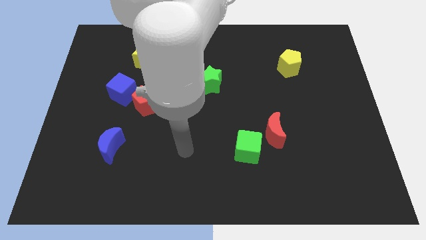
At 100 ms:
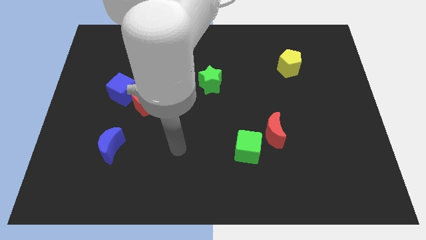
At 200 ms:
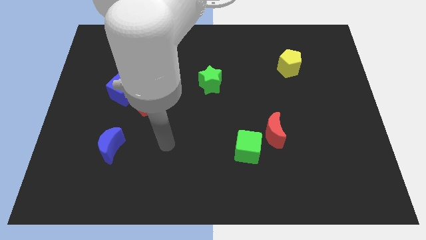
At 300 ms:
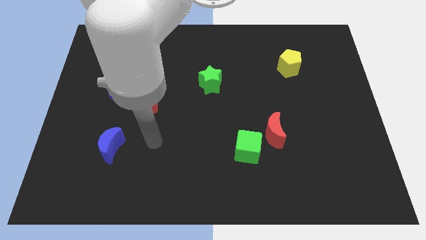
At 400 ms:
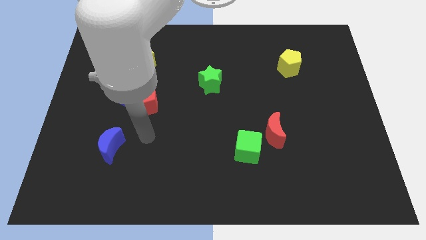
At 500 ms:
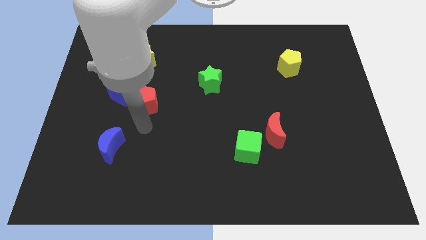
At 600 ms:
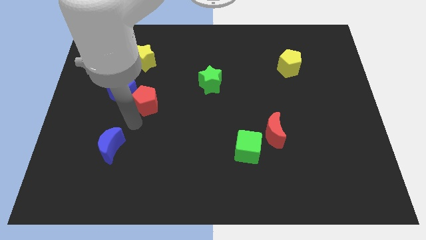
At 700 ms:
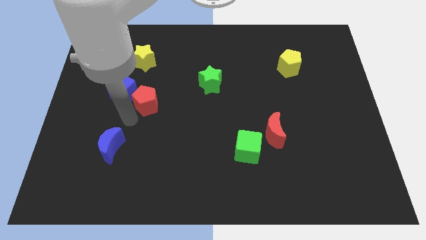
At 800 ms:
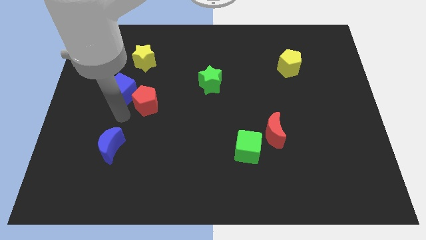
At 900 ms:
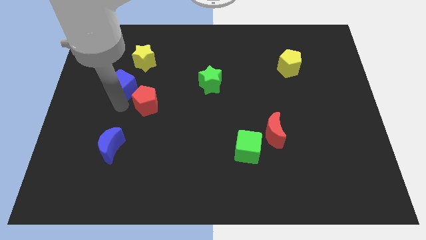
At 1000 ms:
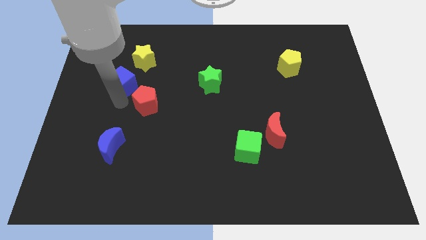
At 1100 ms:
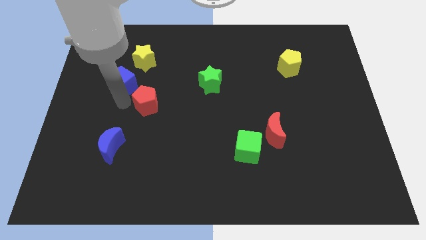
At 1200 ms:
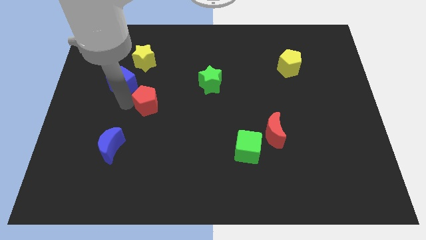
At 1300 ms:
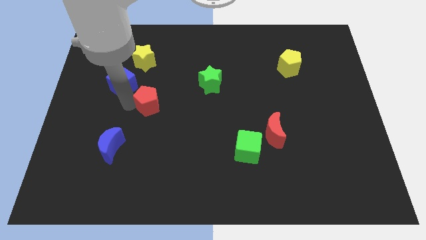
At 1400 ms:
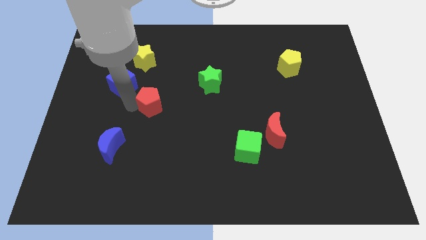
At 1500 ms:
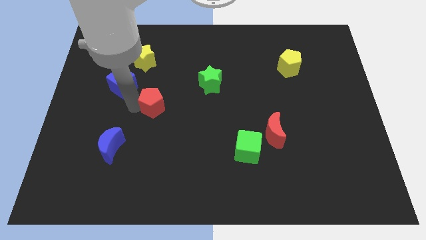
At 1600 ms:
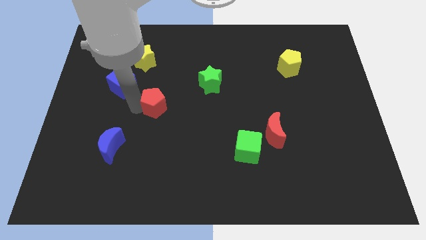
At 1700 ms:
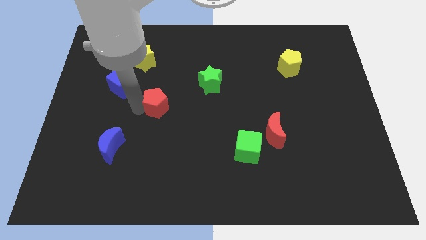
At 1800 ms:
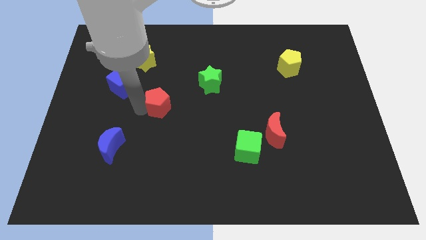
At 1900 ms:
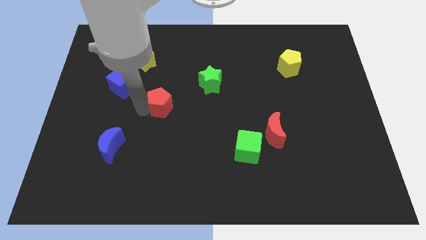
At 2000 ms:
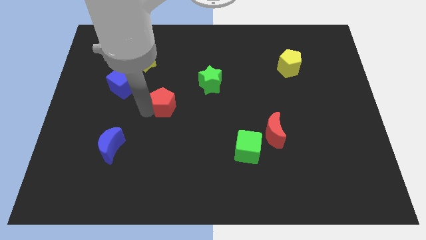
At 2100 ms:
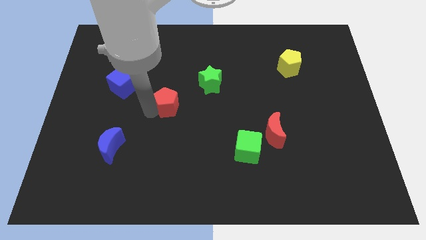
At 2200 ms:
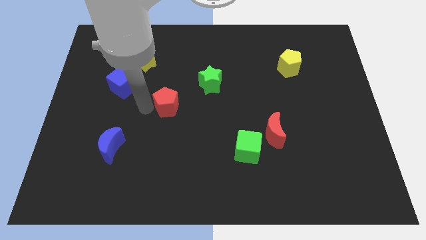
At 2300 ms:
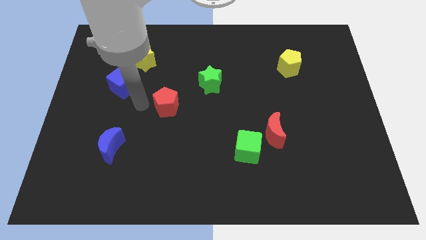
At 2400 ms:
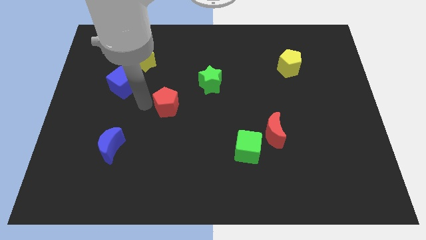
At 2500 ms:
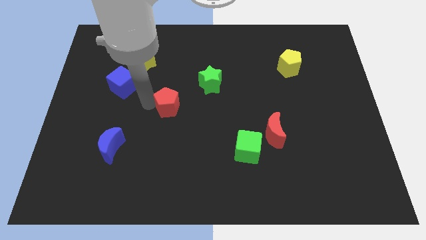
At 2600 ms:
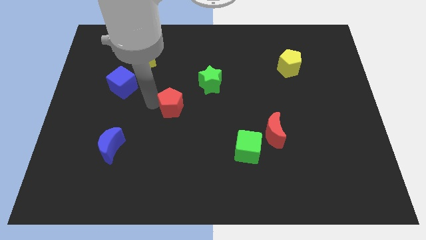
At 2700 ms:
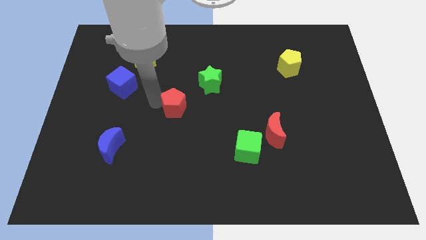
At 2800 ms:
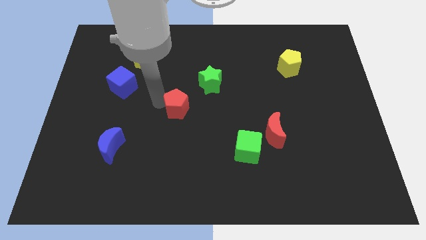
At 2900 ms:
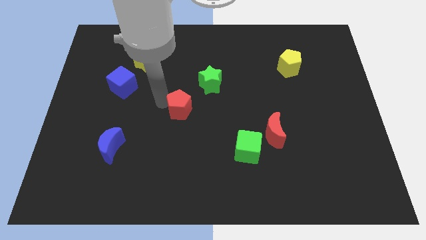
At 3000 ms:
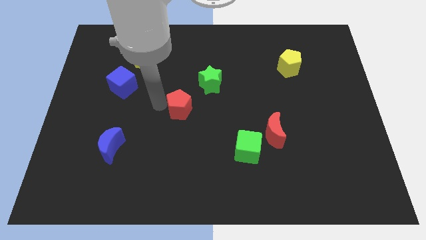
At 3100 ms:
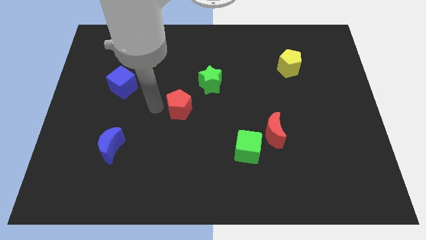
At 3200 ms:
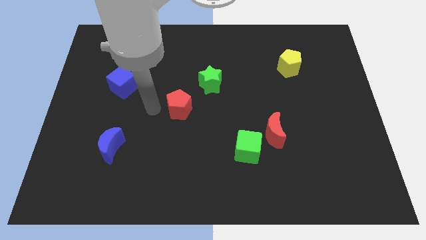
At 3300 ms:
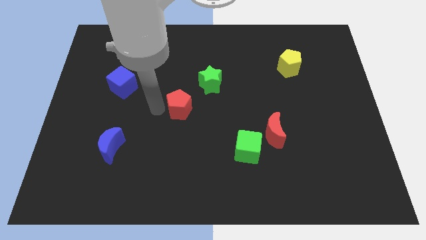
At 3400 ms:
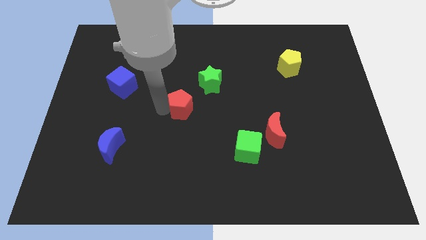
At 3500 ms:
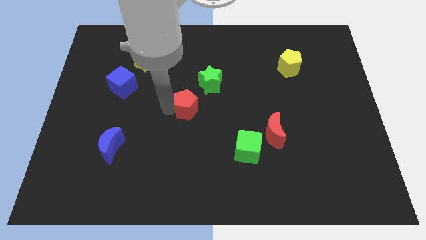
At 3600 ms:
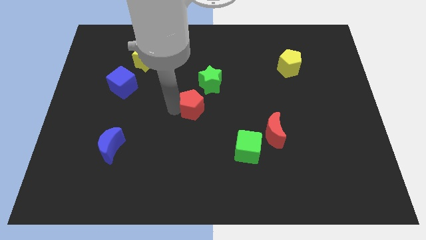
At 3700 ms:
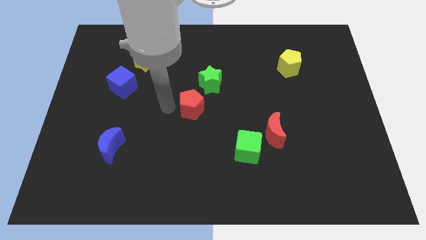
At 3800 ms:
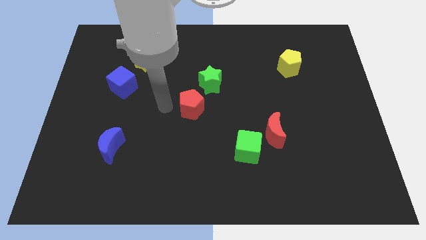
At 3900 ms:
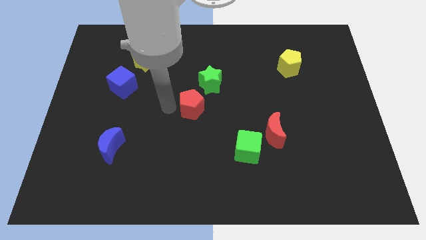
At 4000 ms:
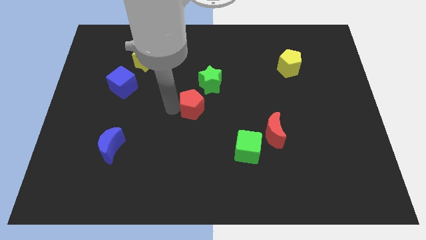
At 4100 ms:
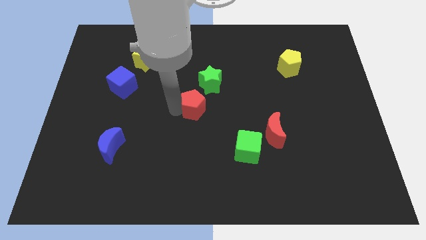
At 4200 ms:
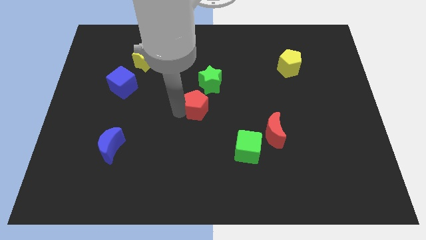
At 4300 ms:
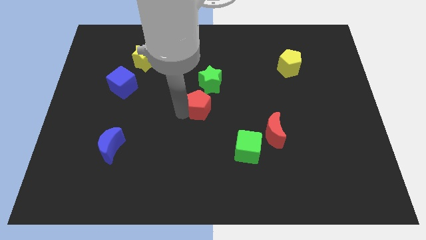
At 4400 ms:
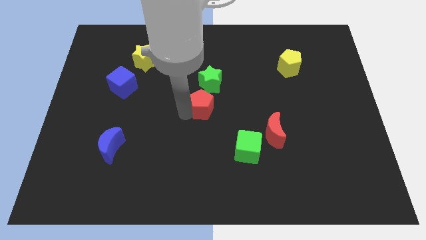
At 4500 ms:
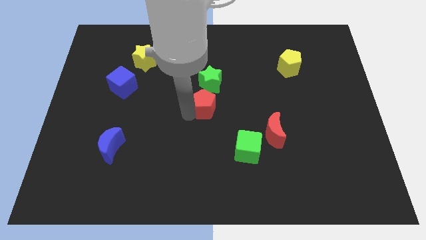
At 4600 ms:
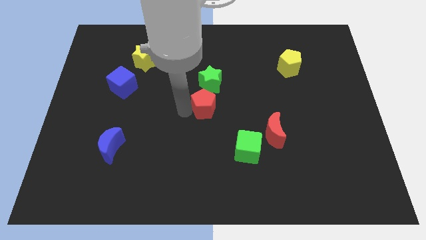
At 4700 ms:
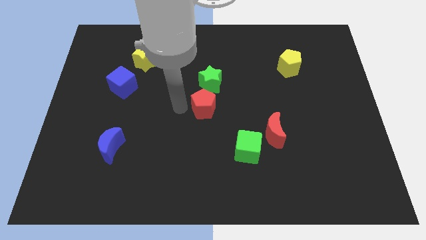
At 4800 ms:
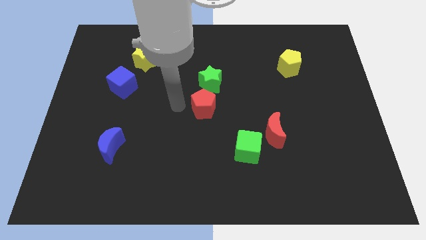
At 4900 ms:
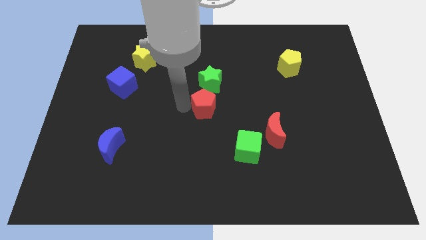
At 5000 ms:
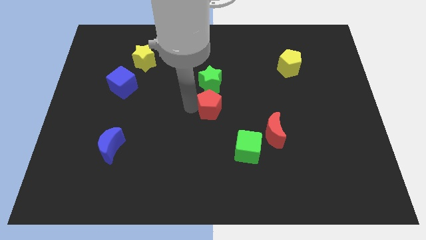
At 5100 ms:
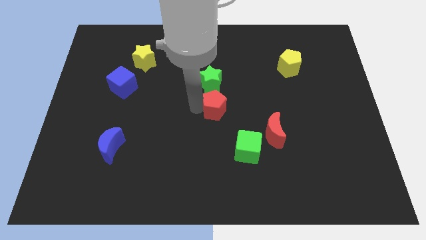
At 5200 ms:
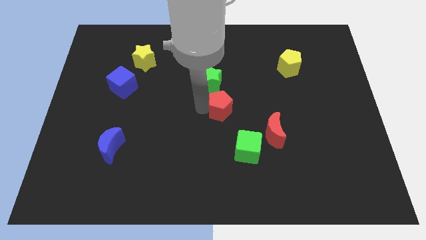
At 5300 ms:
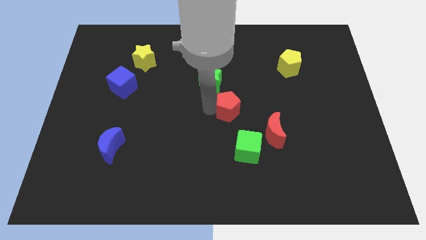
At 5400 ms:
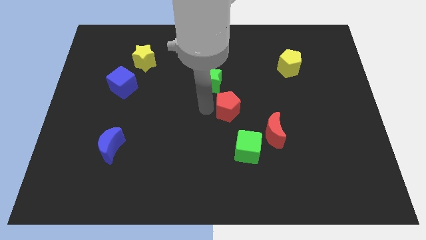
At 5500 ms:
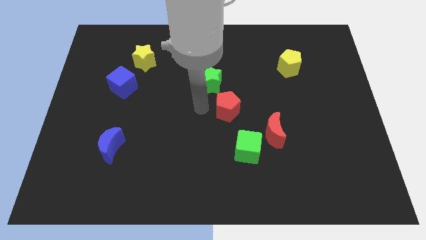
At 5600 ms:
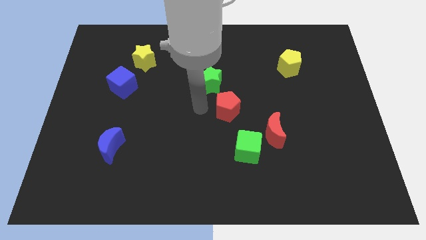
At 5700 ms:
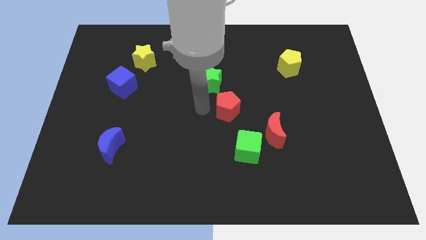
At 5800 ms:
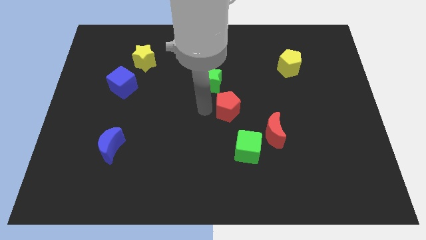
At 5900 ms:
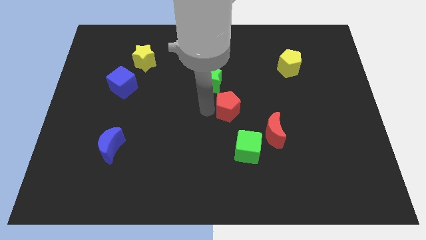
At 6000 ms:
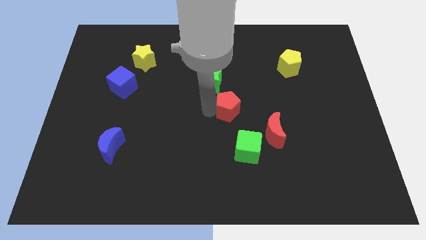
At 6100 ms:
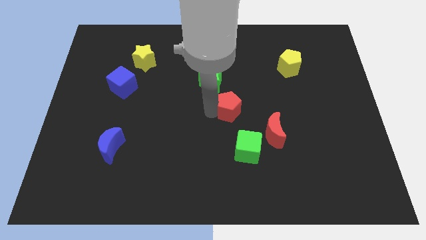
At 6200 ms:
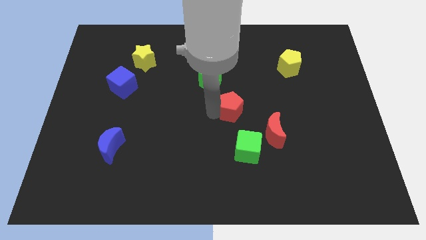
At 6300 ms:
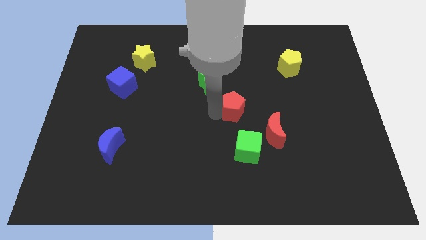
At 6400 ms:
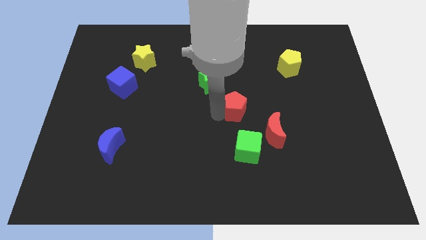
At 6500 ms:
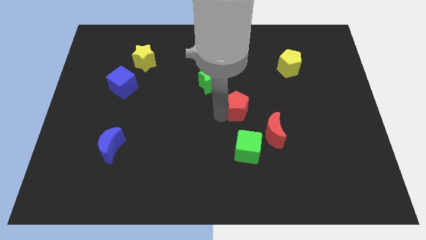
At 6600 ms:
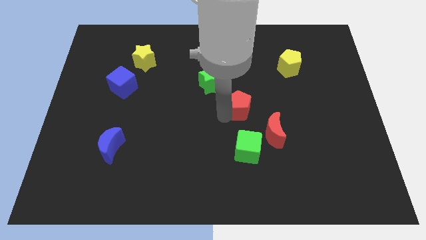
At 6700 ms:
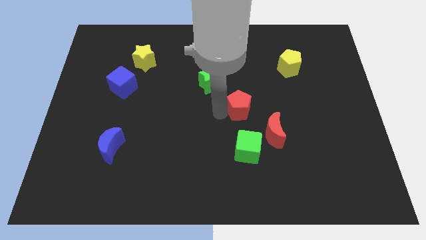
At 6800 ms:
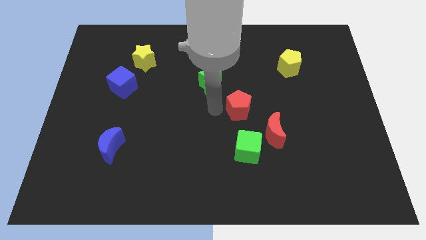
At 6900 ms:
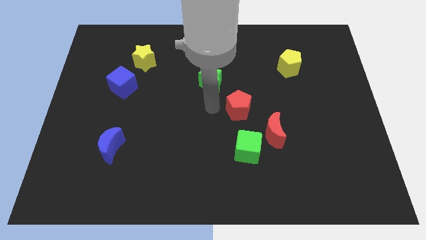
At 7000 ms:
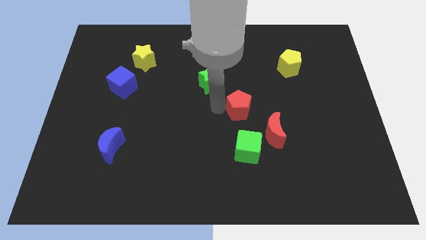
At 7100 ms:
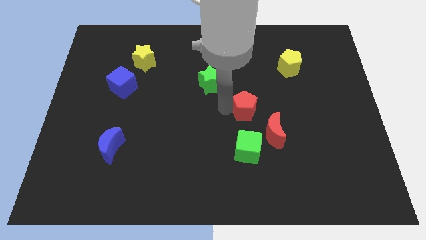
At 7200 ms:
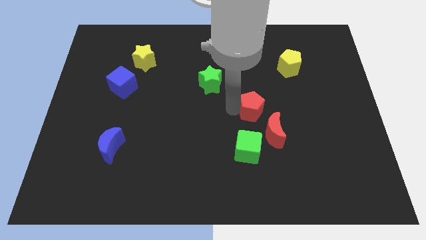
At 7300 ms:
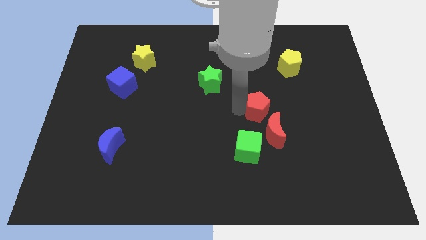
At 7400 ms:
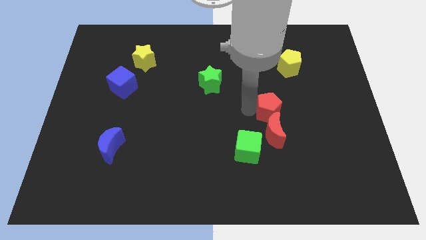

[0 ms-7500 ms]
move the red pentagon diagonally up and to the right of the red moon

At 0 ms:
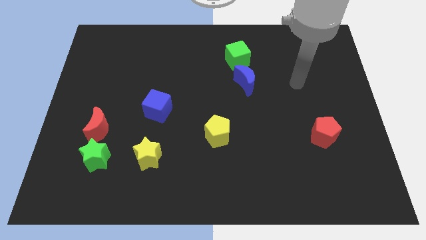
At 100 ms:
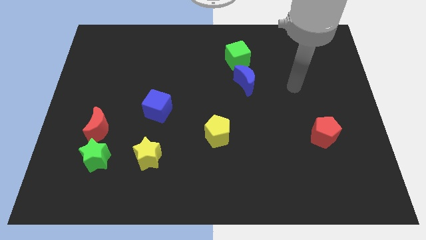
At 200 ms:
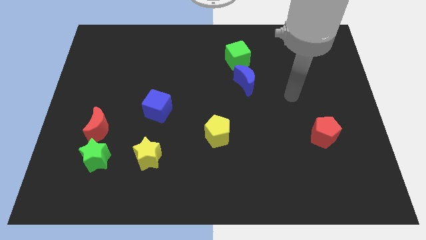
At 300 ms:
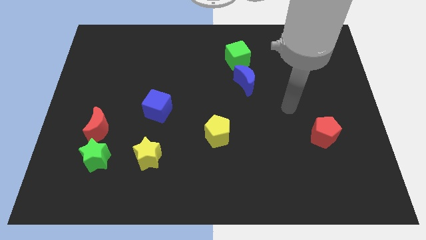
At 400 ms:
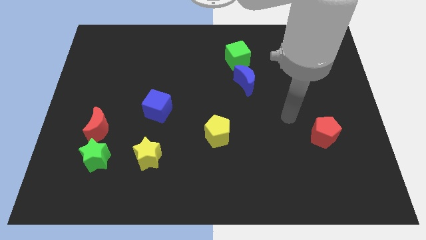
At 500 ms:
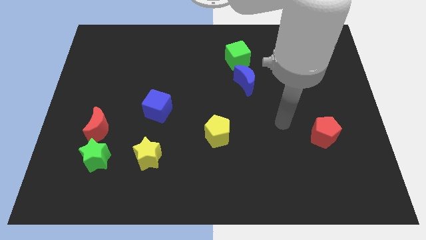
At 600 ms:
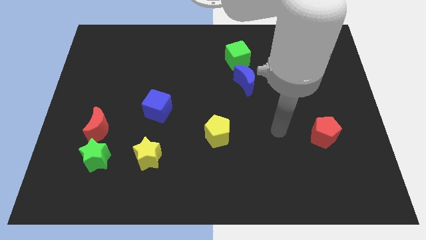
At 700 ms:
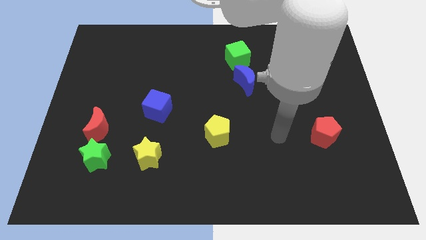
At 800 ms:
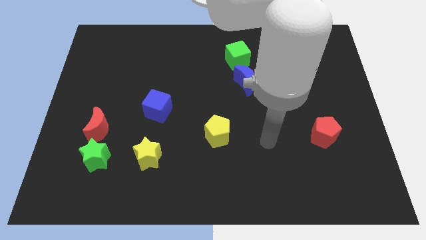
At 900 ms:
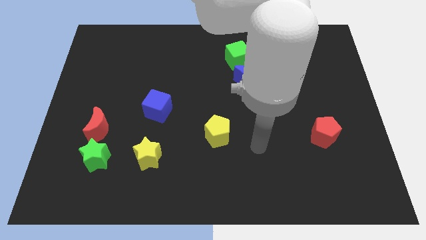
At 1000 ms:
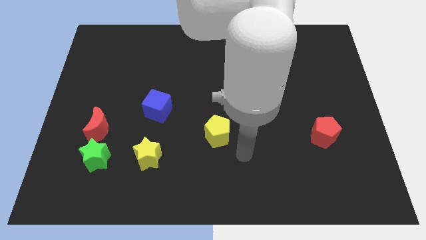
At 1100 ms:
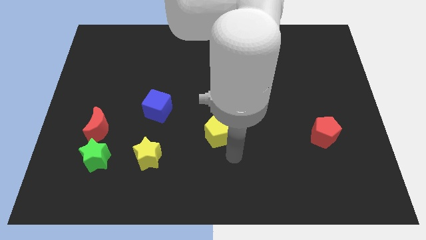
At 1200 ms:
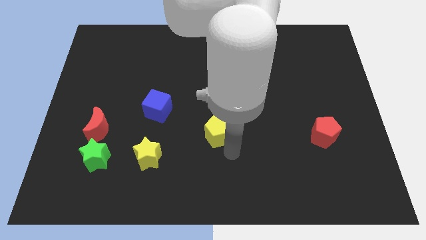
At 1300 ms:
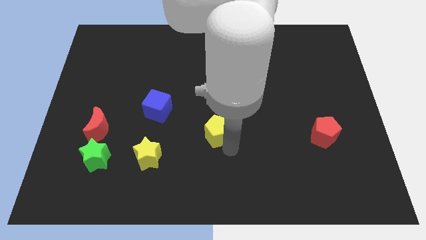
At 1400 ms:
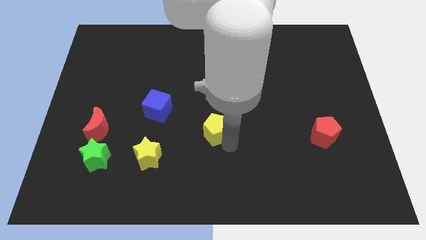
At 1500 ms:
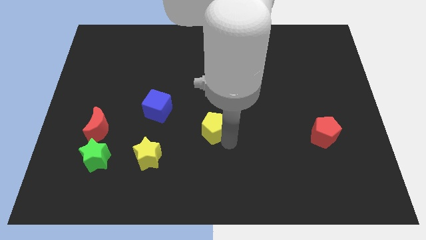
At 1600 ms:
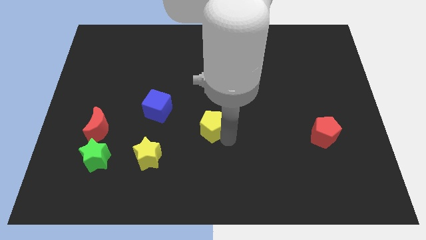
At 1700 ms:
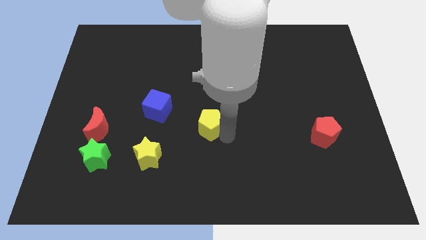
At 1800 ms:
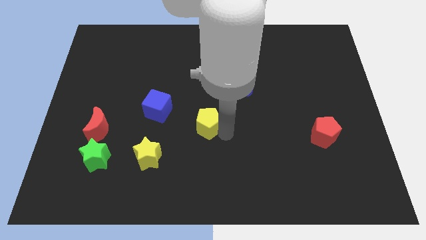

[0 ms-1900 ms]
put the yellow pentagon right of the blue cube
